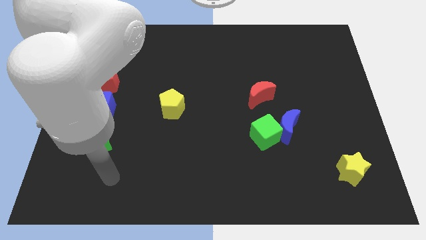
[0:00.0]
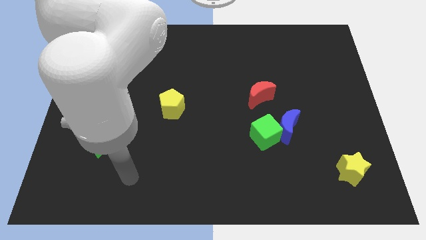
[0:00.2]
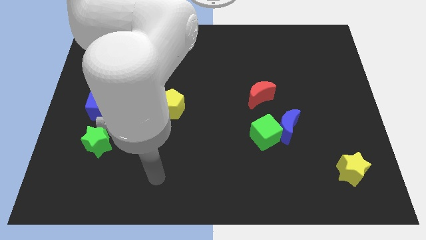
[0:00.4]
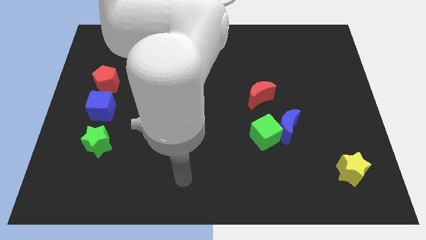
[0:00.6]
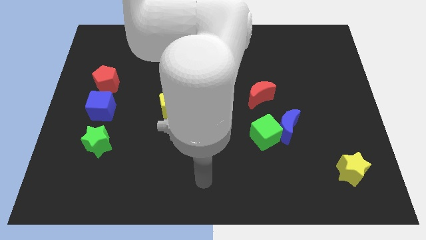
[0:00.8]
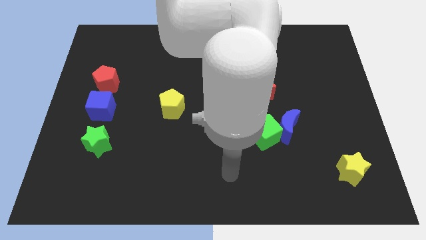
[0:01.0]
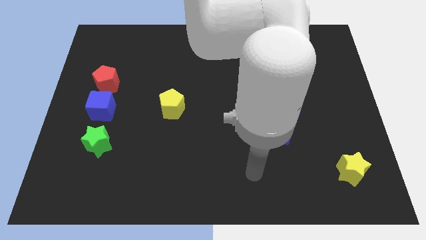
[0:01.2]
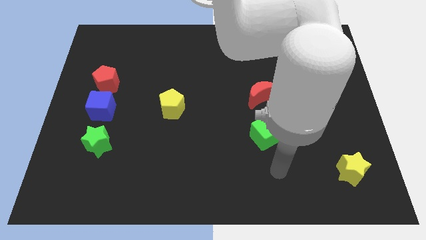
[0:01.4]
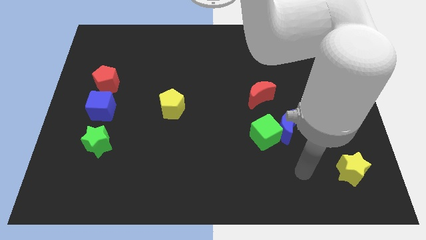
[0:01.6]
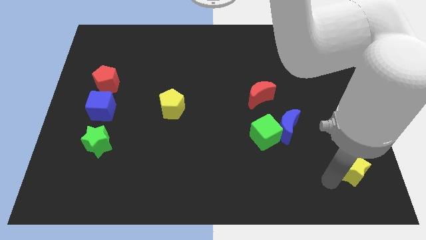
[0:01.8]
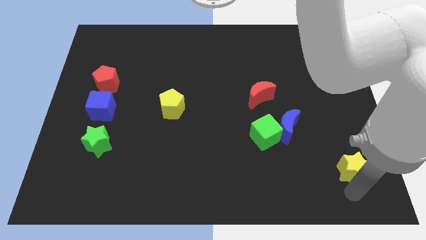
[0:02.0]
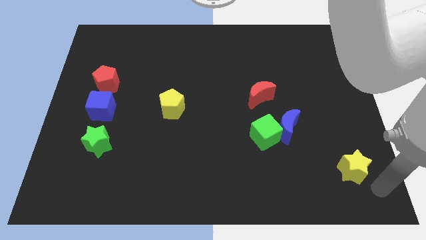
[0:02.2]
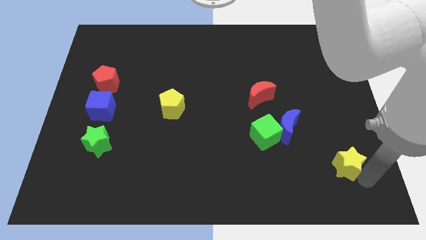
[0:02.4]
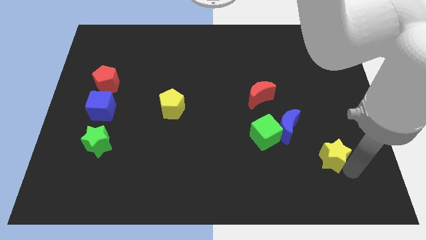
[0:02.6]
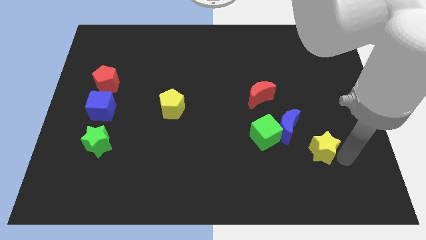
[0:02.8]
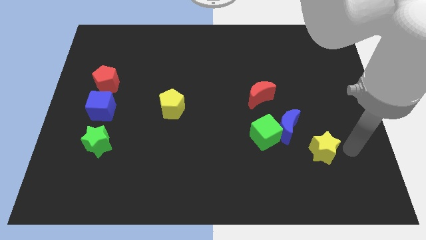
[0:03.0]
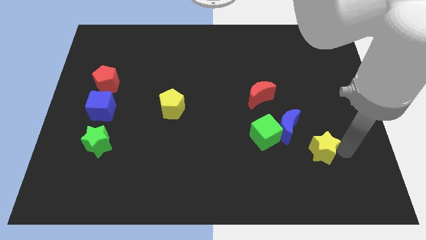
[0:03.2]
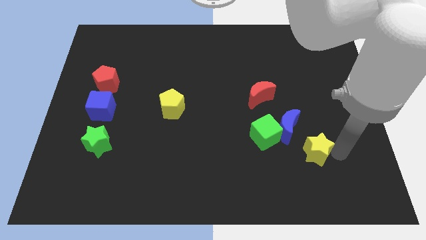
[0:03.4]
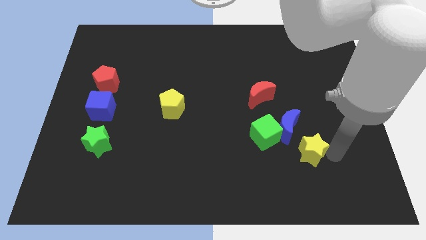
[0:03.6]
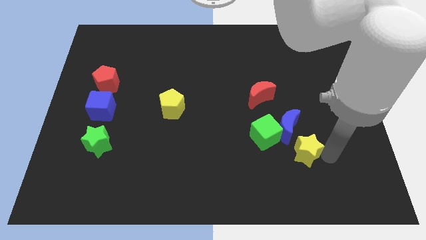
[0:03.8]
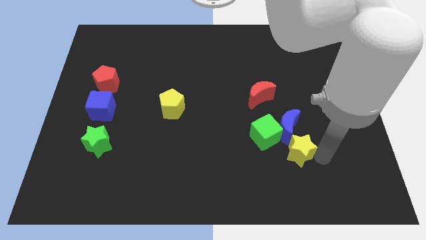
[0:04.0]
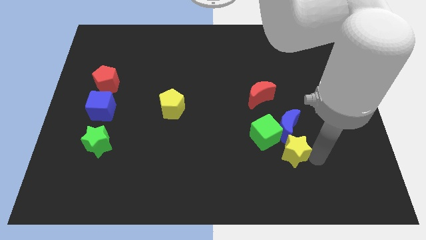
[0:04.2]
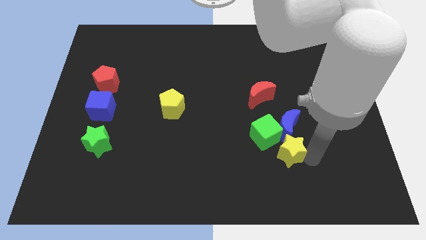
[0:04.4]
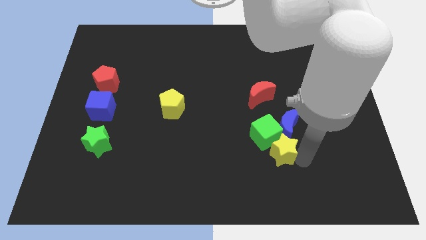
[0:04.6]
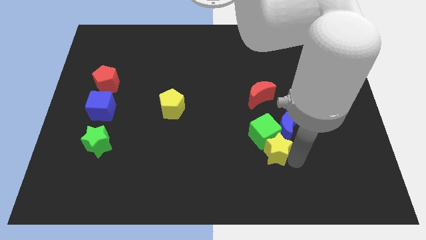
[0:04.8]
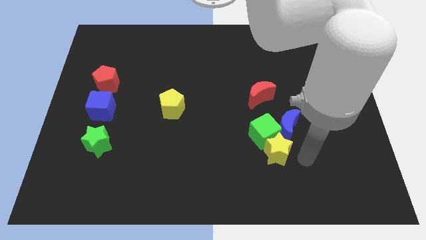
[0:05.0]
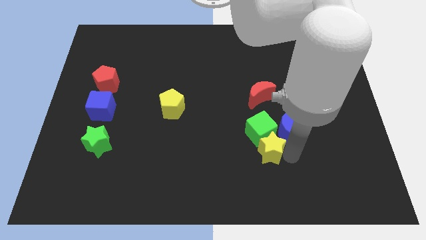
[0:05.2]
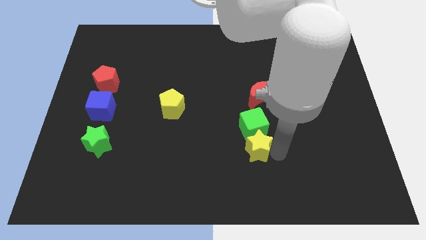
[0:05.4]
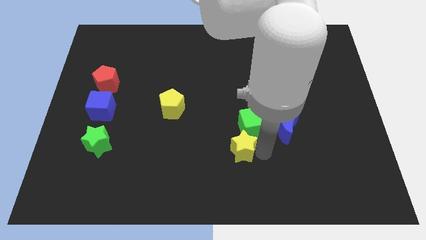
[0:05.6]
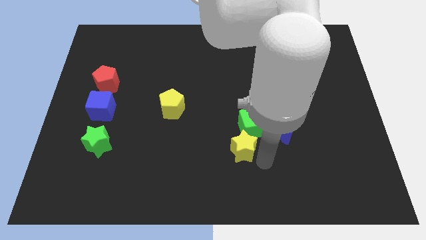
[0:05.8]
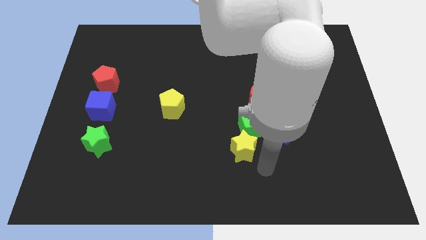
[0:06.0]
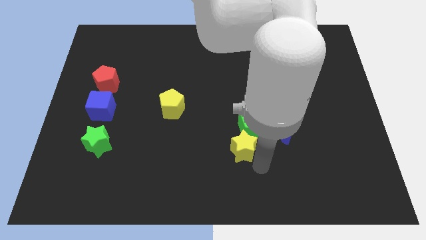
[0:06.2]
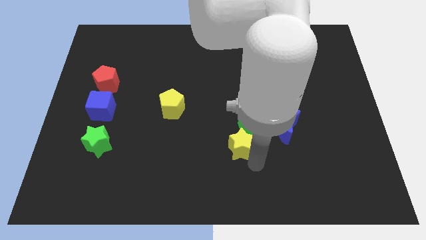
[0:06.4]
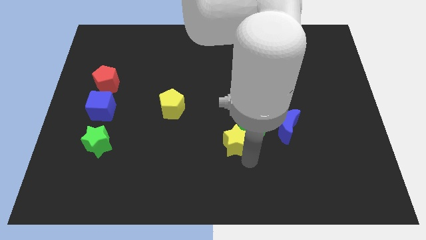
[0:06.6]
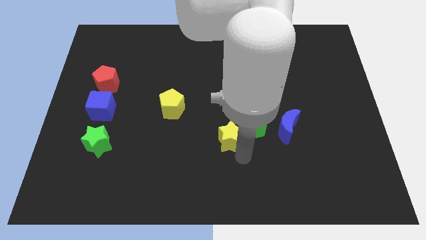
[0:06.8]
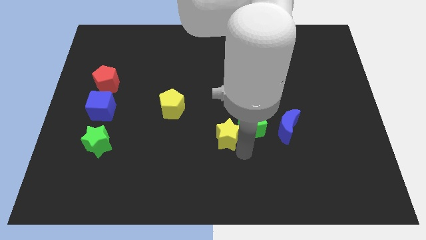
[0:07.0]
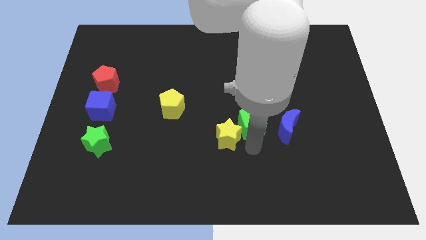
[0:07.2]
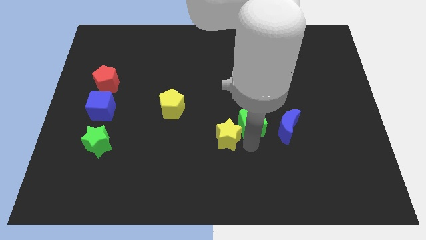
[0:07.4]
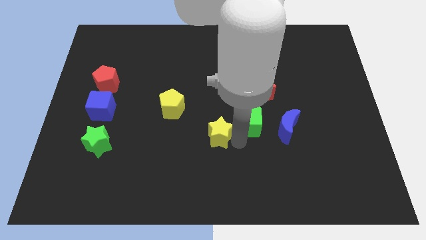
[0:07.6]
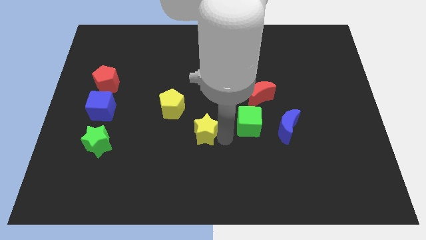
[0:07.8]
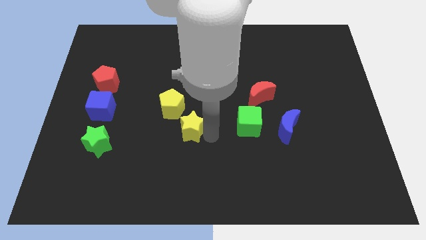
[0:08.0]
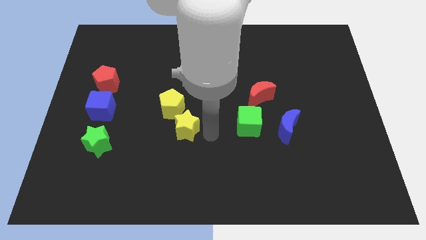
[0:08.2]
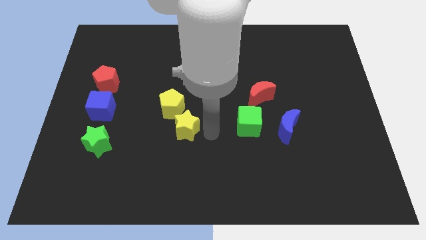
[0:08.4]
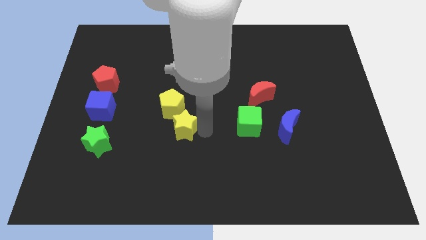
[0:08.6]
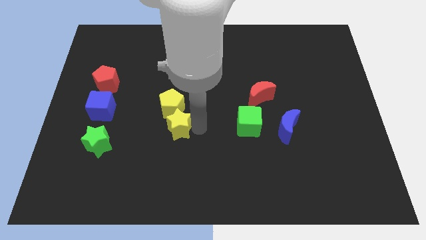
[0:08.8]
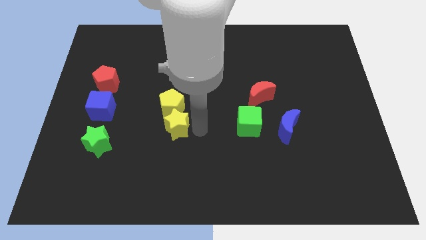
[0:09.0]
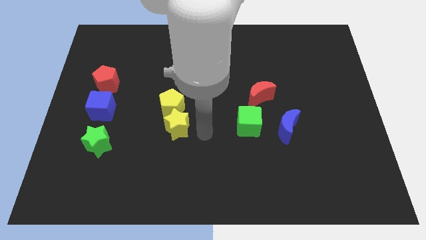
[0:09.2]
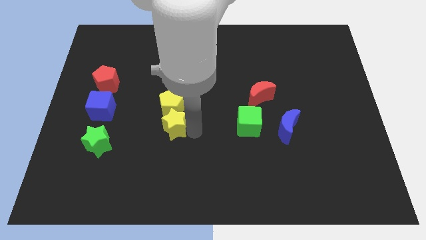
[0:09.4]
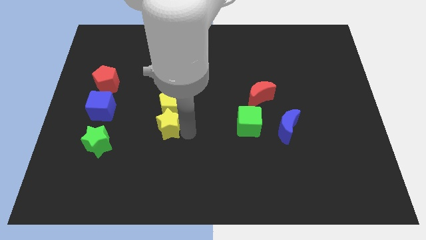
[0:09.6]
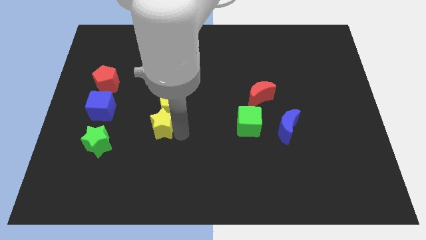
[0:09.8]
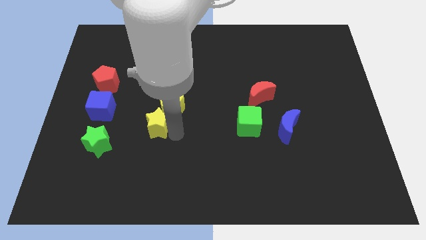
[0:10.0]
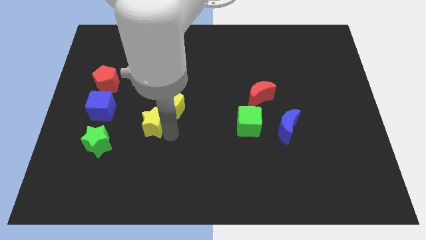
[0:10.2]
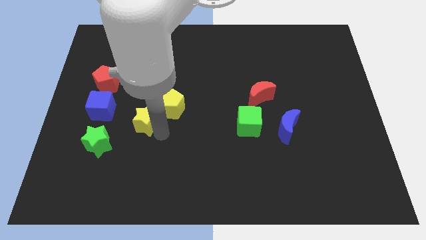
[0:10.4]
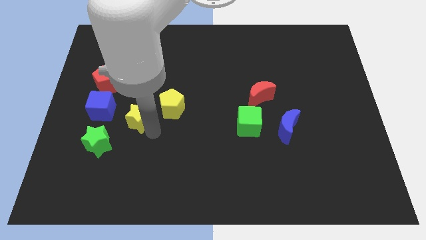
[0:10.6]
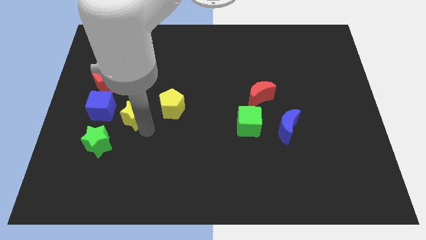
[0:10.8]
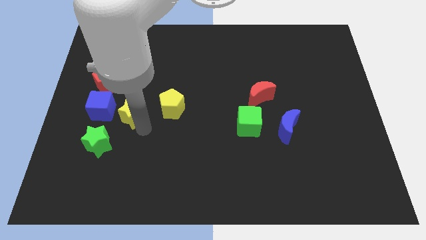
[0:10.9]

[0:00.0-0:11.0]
put the yellow star to the bottom right side of the red pentagon

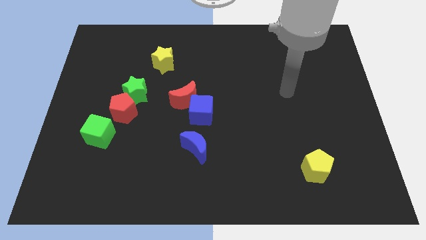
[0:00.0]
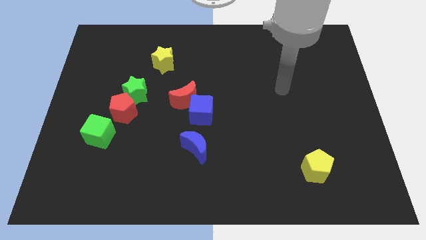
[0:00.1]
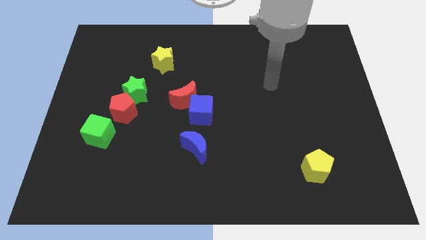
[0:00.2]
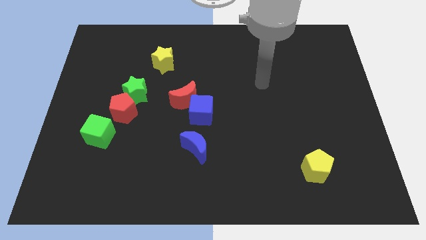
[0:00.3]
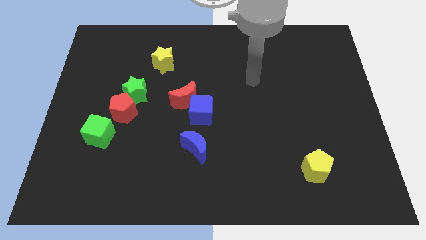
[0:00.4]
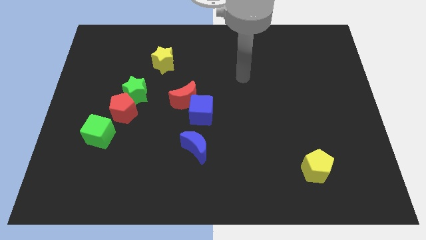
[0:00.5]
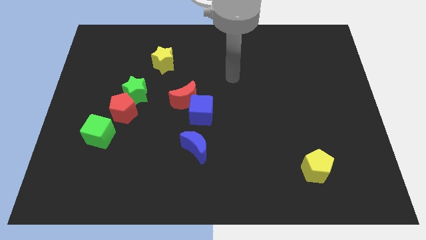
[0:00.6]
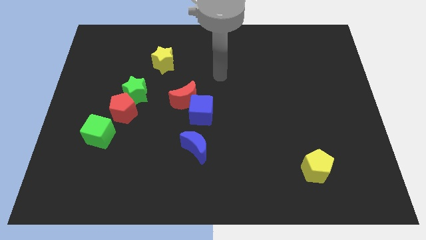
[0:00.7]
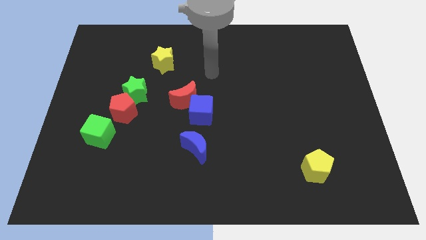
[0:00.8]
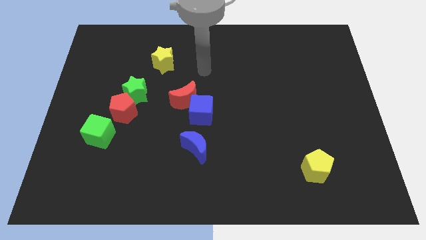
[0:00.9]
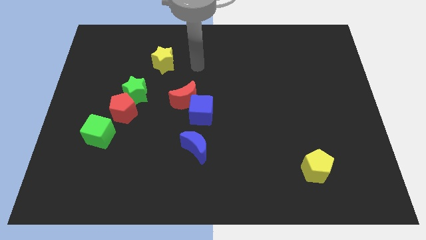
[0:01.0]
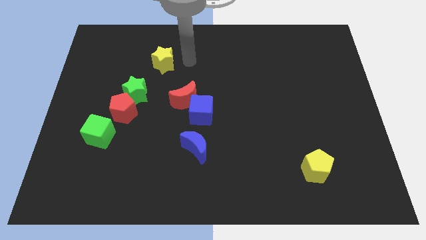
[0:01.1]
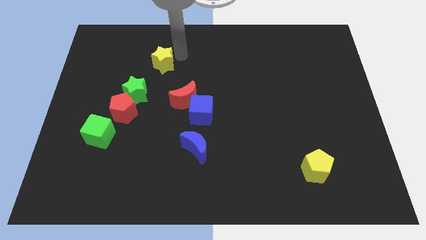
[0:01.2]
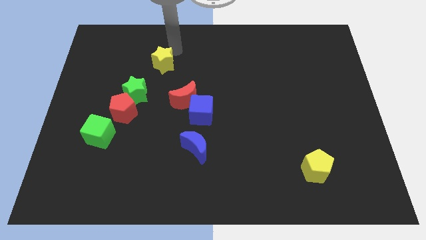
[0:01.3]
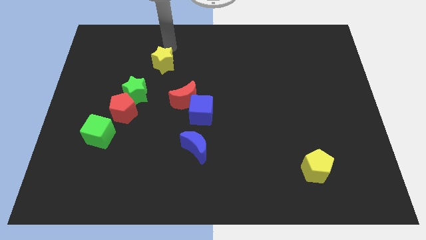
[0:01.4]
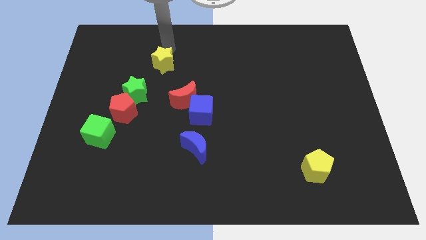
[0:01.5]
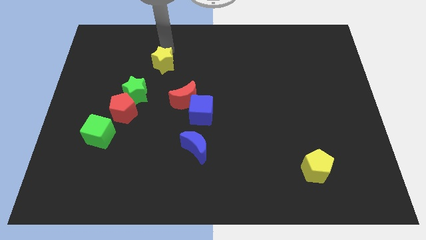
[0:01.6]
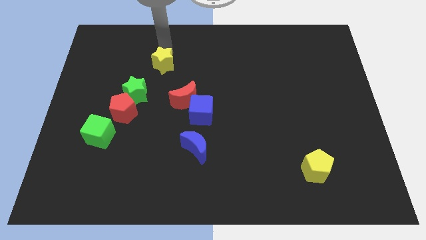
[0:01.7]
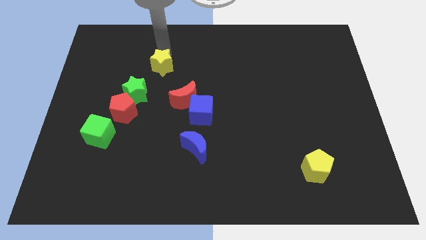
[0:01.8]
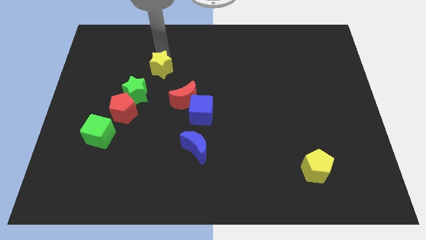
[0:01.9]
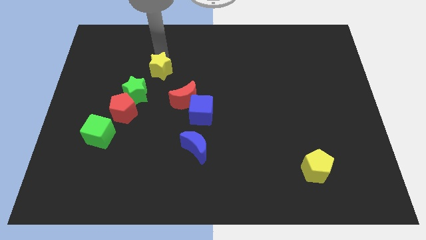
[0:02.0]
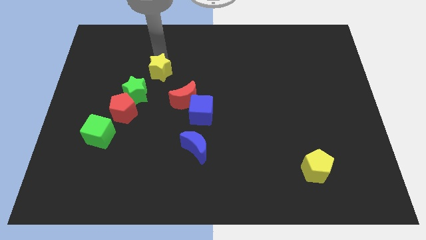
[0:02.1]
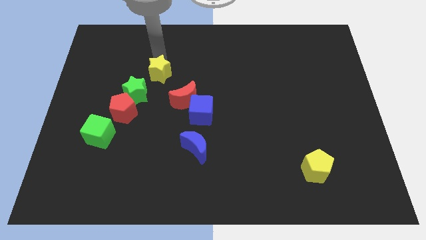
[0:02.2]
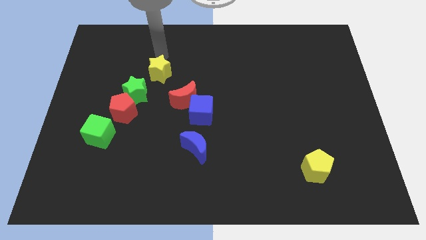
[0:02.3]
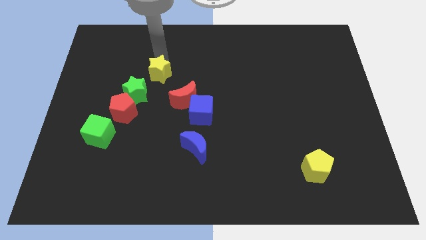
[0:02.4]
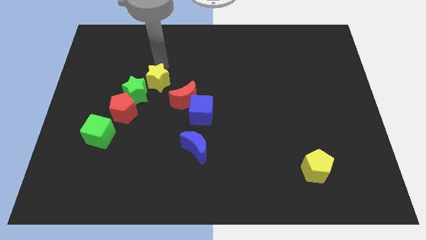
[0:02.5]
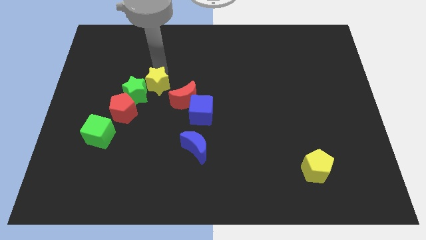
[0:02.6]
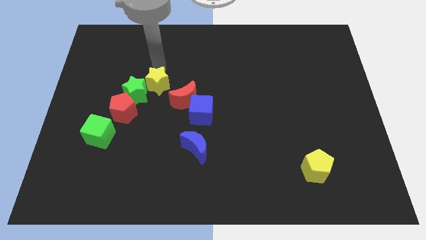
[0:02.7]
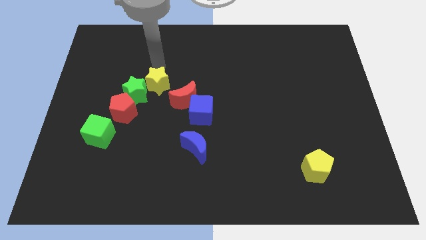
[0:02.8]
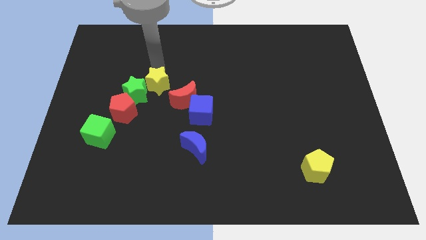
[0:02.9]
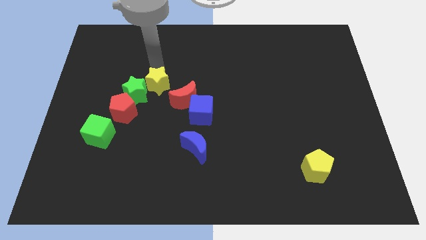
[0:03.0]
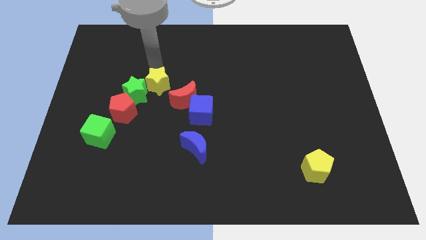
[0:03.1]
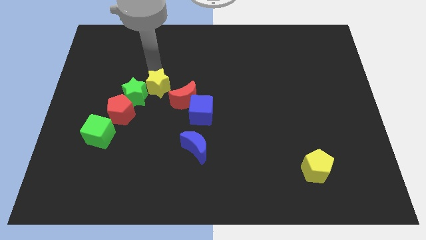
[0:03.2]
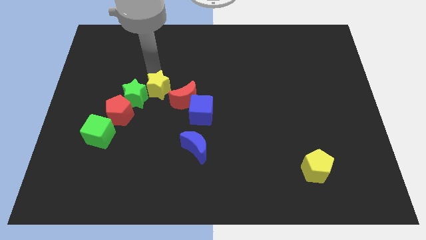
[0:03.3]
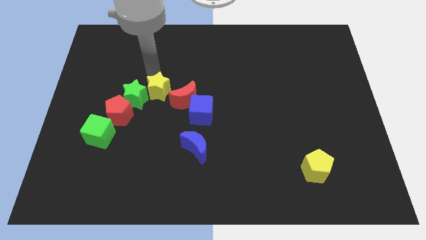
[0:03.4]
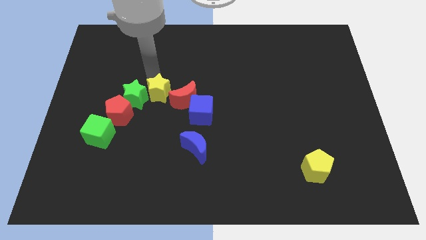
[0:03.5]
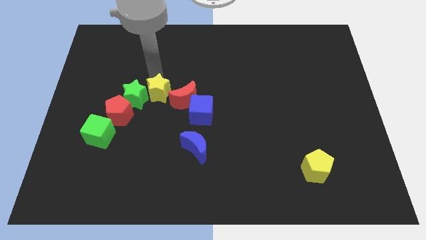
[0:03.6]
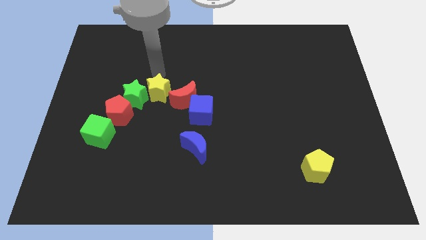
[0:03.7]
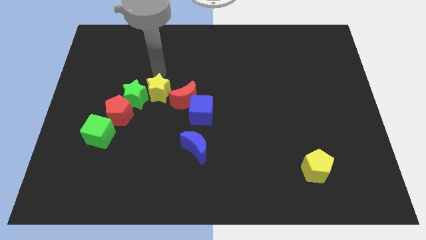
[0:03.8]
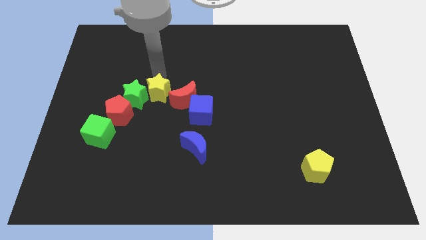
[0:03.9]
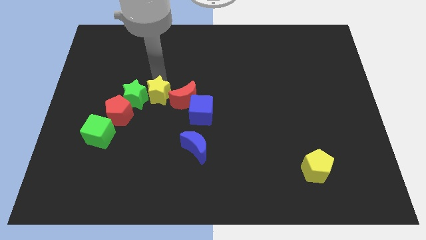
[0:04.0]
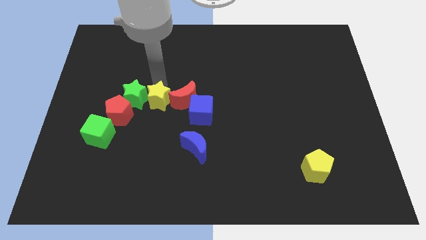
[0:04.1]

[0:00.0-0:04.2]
push the yellow star to the bottom left of the red moon
